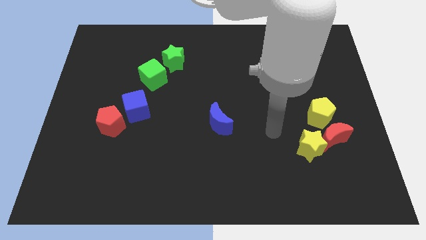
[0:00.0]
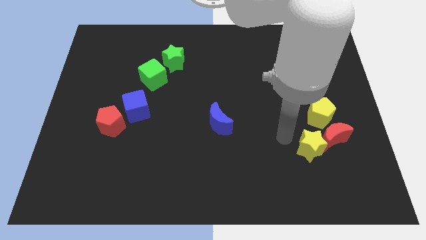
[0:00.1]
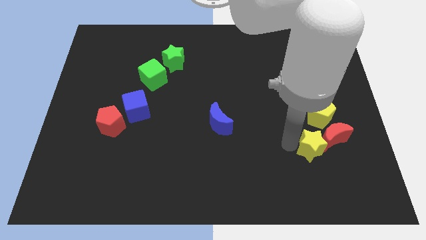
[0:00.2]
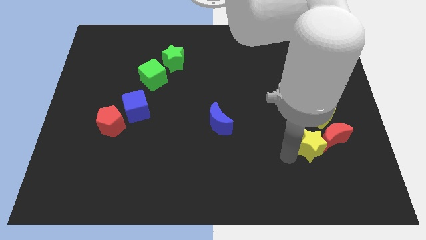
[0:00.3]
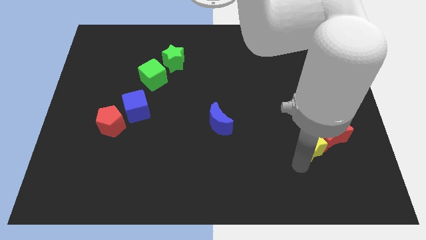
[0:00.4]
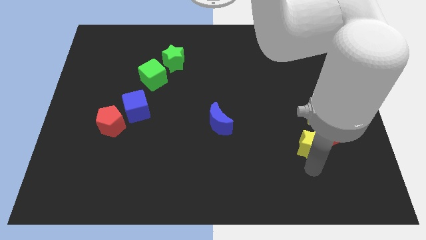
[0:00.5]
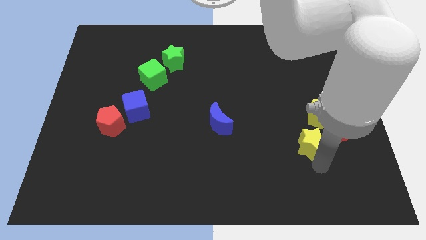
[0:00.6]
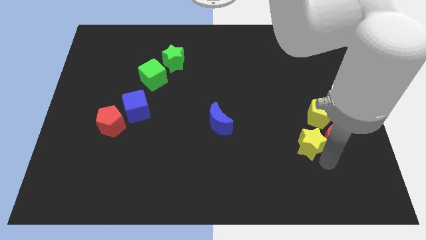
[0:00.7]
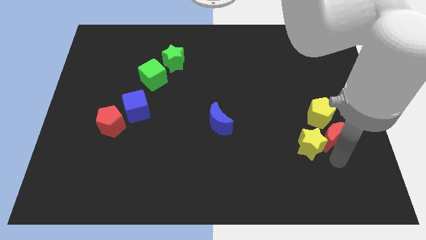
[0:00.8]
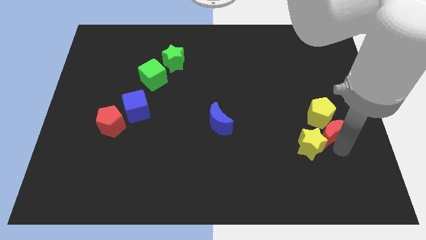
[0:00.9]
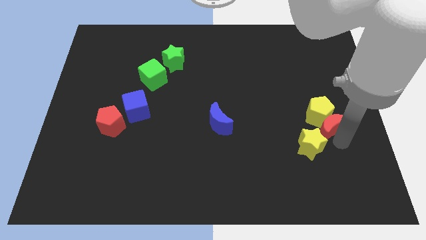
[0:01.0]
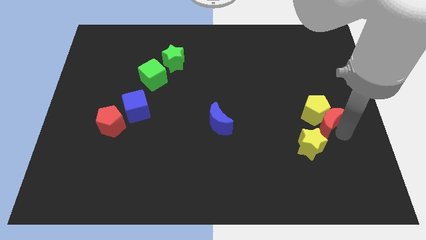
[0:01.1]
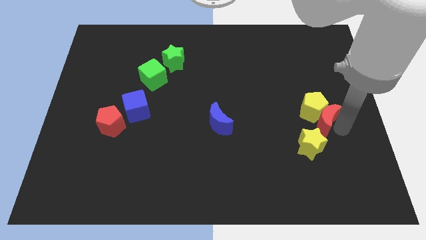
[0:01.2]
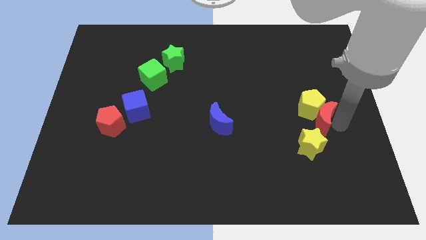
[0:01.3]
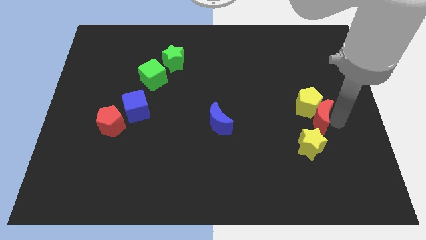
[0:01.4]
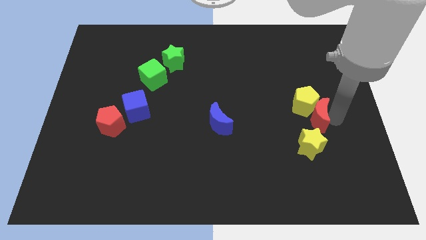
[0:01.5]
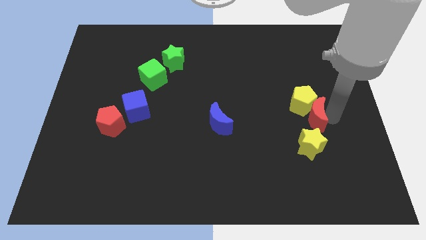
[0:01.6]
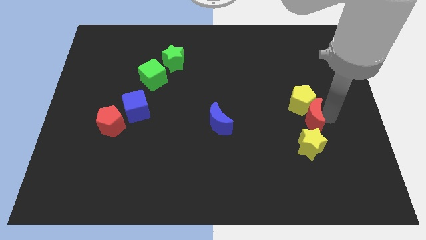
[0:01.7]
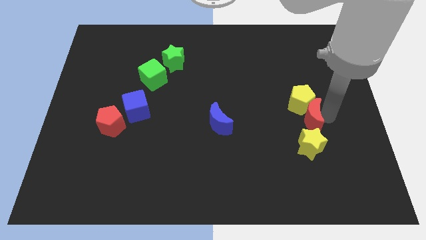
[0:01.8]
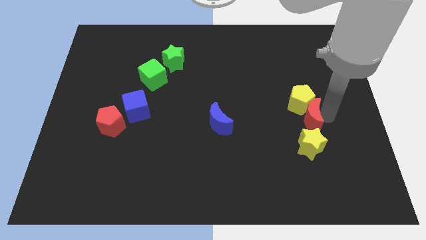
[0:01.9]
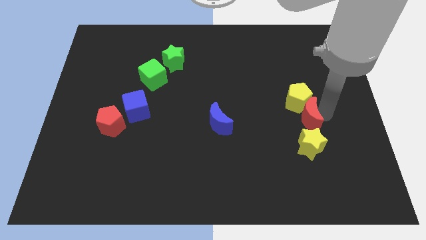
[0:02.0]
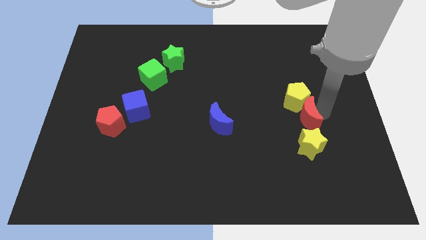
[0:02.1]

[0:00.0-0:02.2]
slightly slide the yellow pentagon up and left

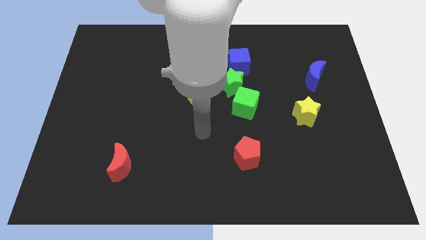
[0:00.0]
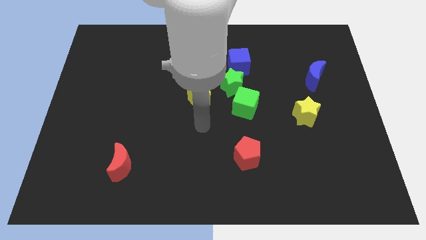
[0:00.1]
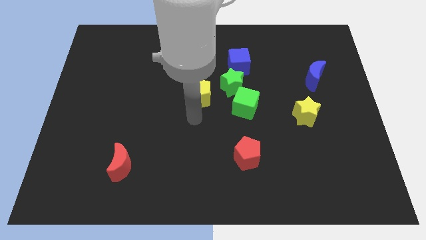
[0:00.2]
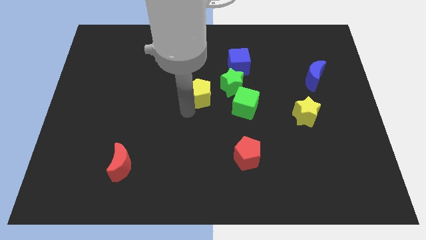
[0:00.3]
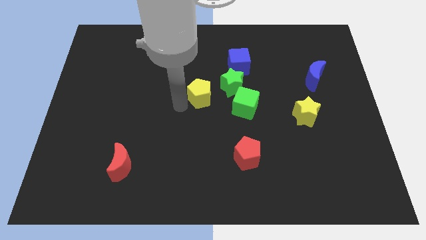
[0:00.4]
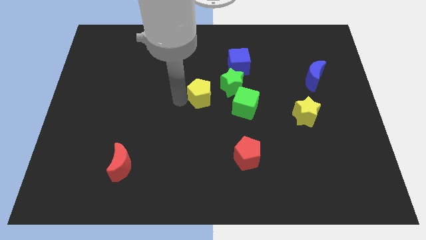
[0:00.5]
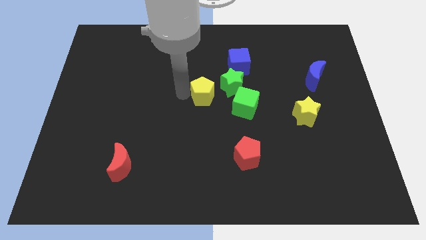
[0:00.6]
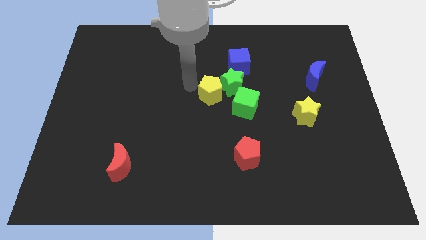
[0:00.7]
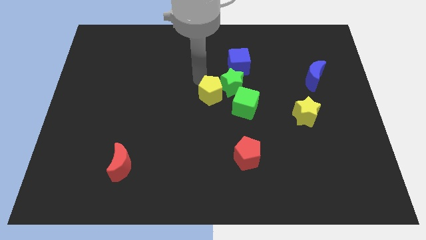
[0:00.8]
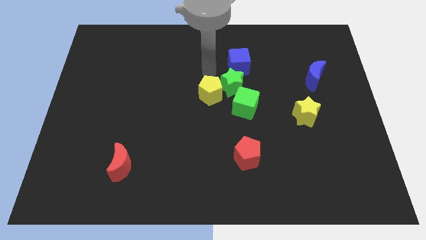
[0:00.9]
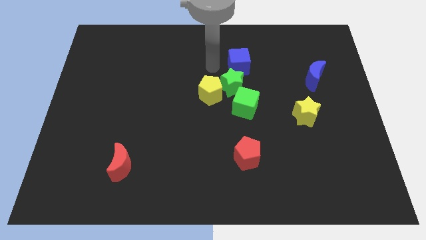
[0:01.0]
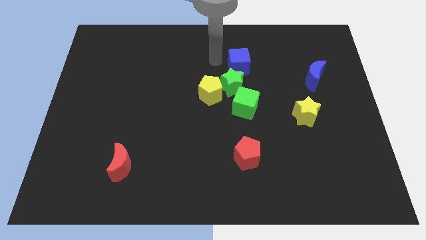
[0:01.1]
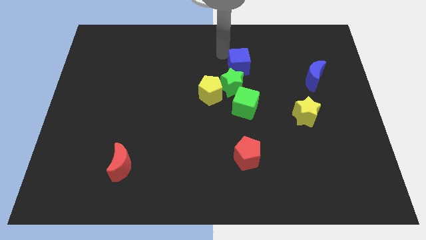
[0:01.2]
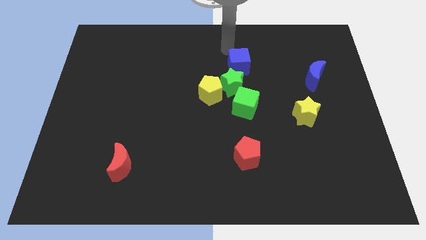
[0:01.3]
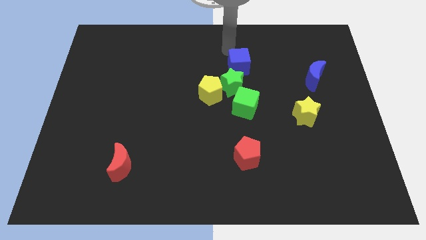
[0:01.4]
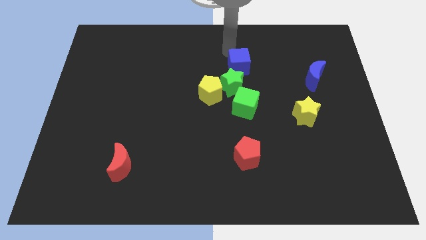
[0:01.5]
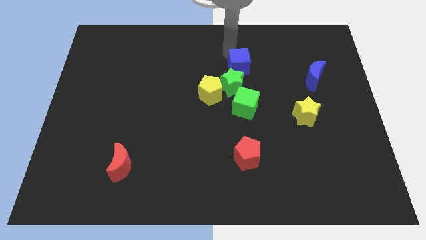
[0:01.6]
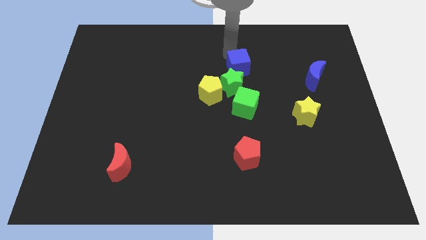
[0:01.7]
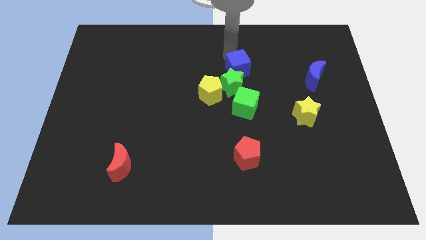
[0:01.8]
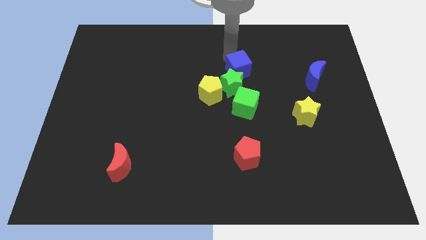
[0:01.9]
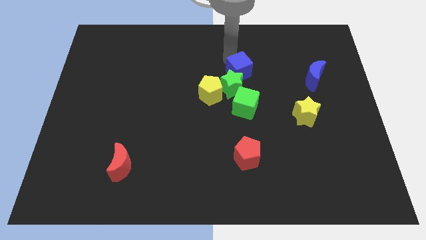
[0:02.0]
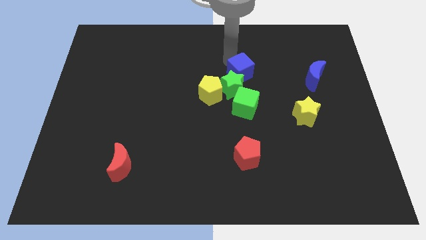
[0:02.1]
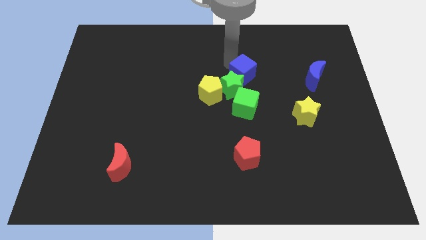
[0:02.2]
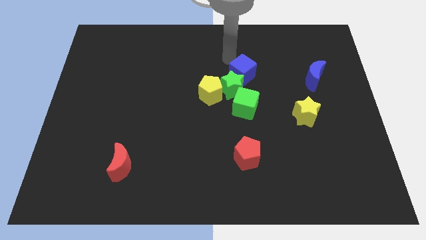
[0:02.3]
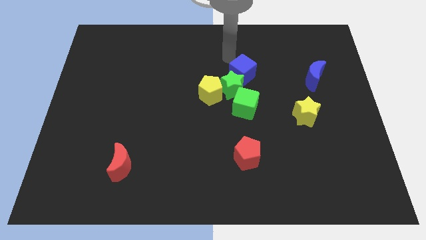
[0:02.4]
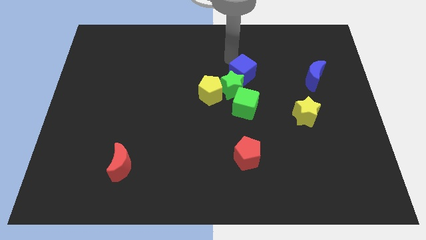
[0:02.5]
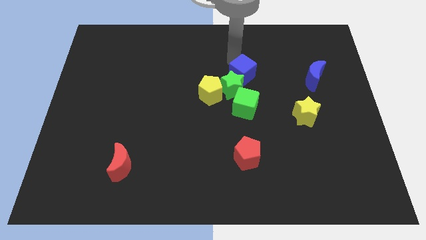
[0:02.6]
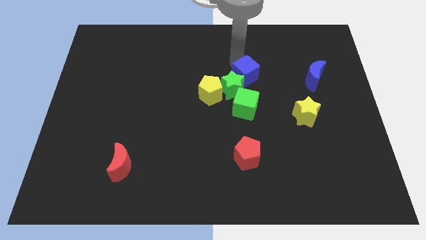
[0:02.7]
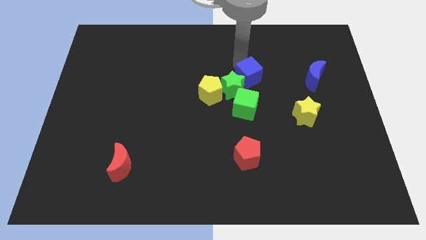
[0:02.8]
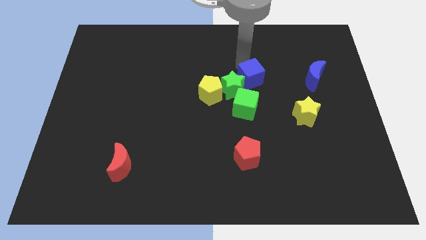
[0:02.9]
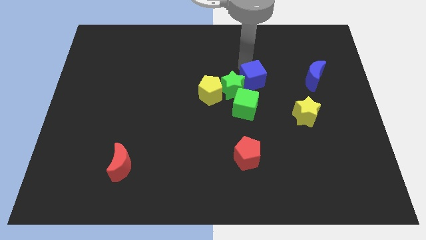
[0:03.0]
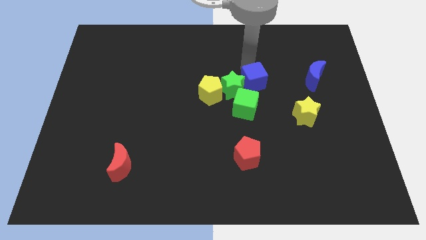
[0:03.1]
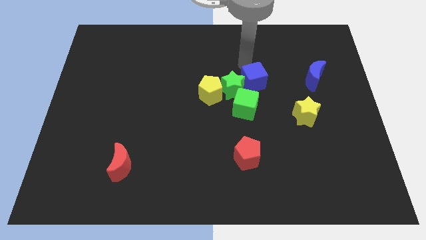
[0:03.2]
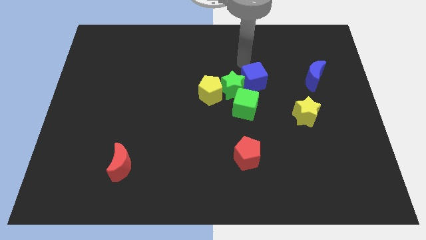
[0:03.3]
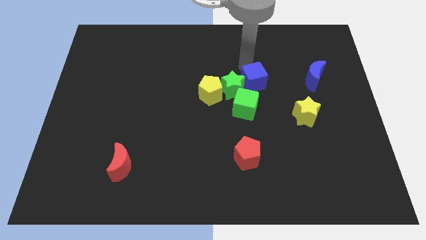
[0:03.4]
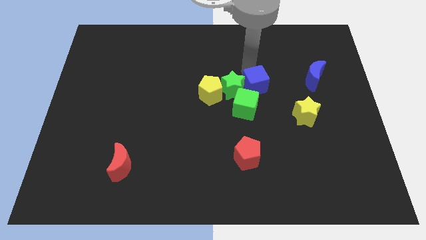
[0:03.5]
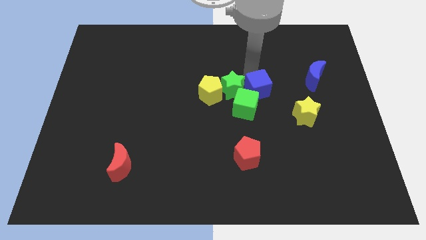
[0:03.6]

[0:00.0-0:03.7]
move the blue cube a bit down

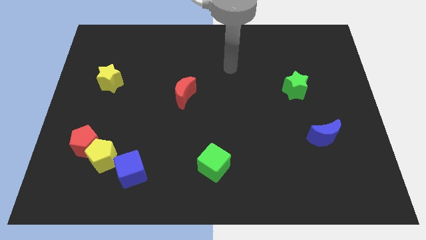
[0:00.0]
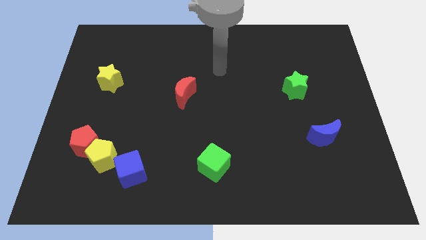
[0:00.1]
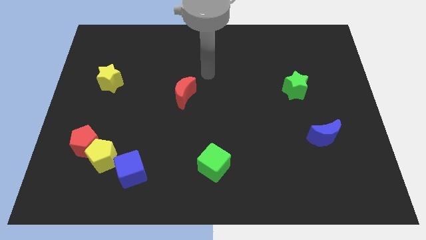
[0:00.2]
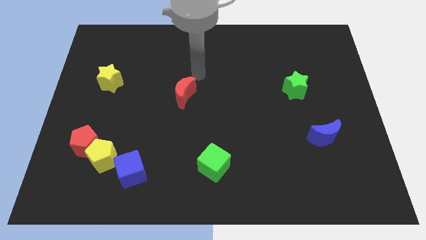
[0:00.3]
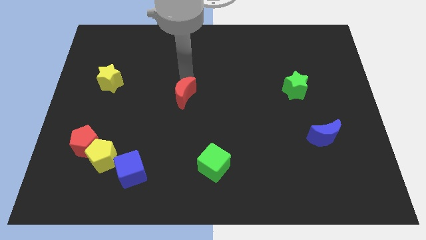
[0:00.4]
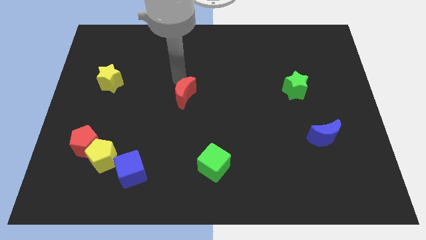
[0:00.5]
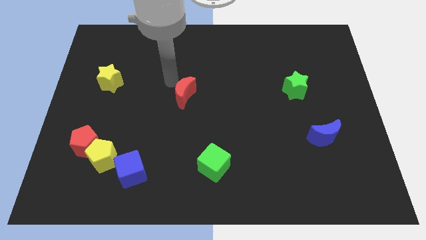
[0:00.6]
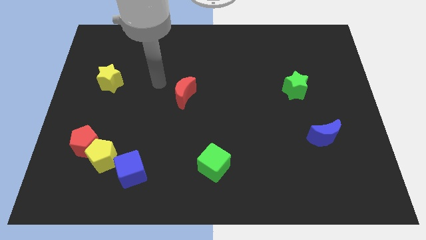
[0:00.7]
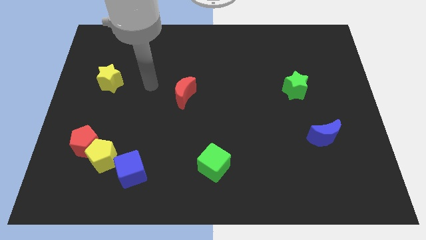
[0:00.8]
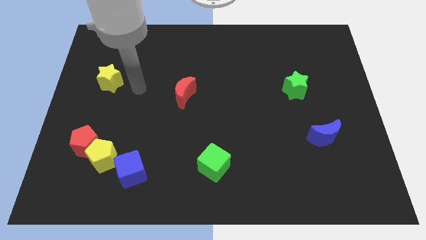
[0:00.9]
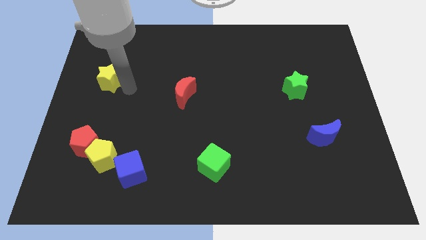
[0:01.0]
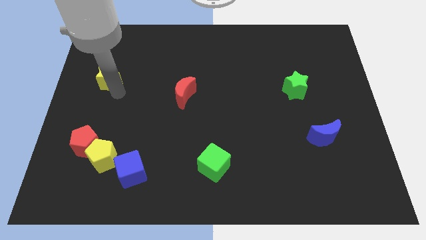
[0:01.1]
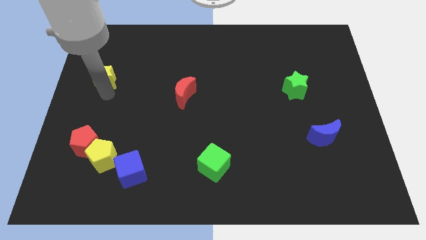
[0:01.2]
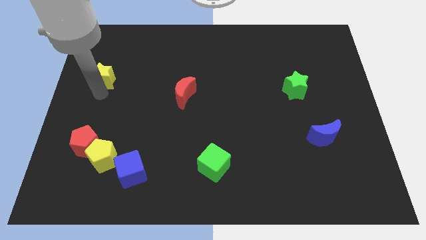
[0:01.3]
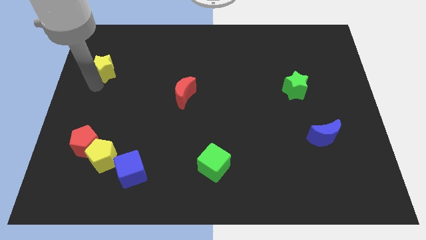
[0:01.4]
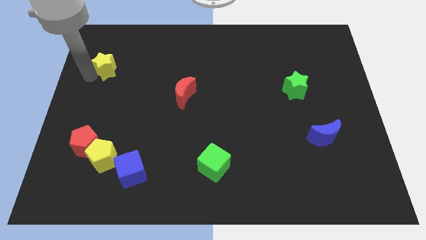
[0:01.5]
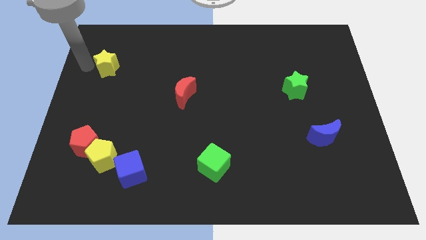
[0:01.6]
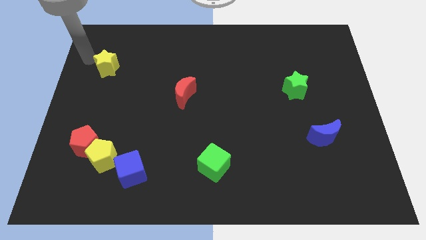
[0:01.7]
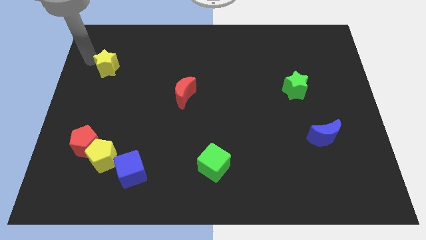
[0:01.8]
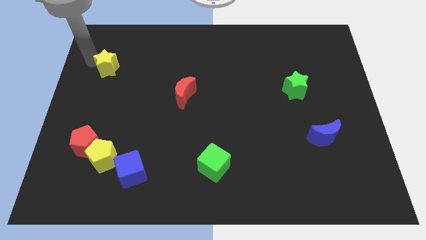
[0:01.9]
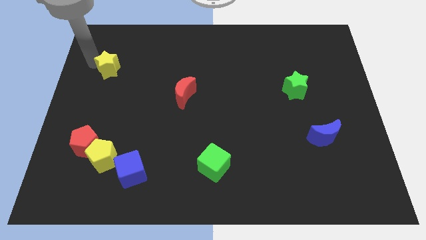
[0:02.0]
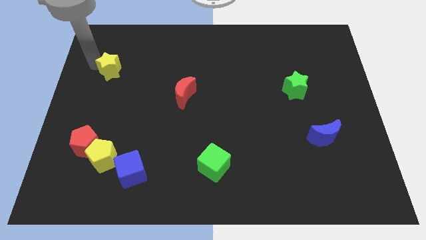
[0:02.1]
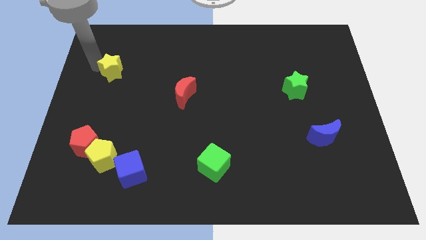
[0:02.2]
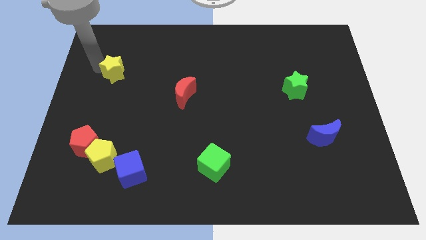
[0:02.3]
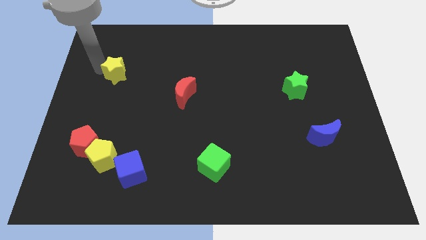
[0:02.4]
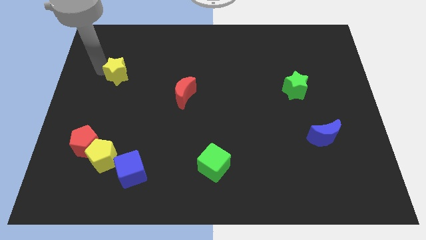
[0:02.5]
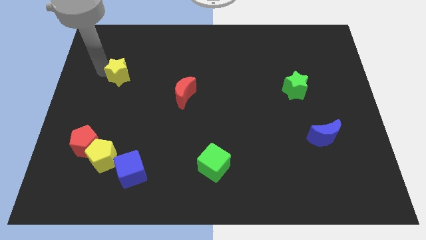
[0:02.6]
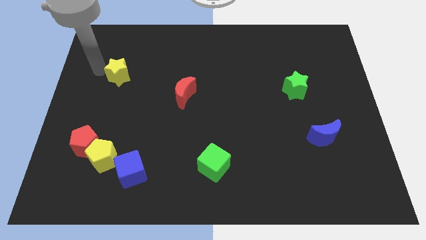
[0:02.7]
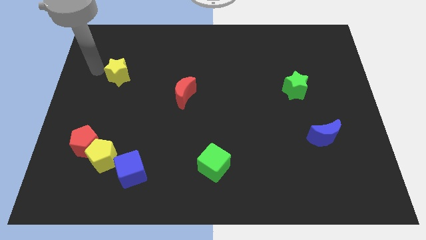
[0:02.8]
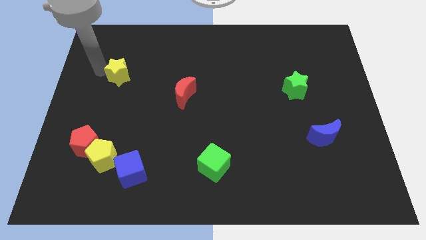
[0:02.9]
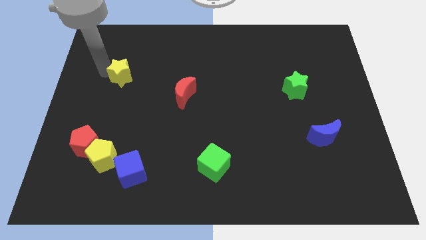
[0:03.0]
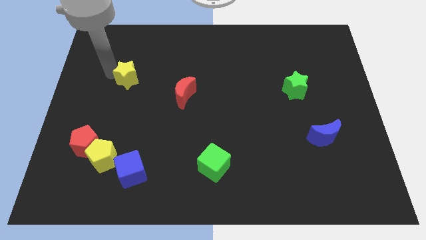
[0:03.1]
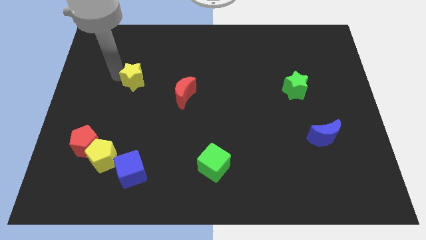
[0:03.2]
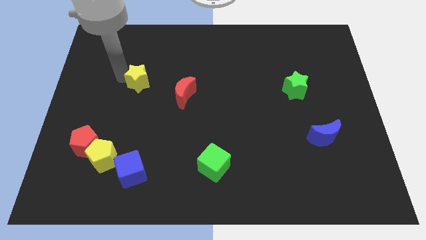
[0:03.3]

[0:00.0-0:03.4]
slide the yellow star a bit right
